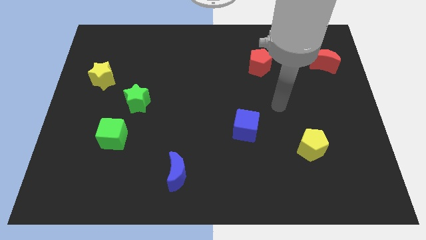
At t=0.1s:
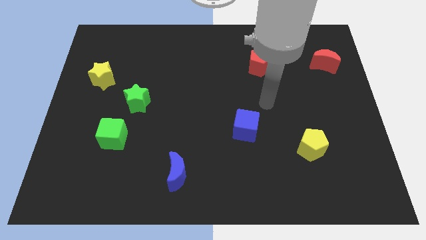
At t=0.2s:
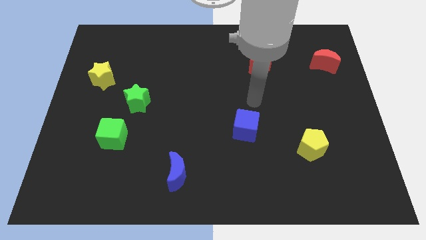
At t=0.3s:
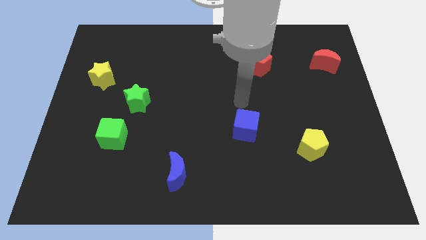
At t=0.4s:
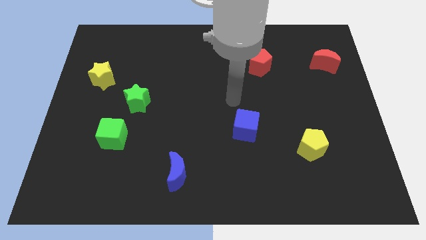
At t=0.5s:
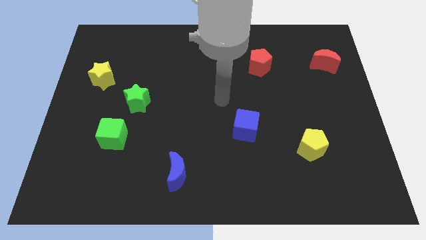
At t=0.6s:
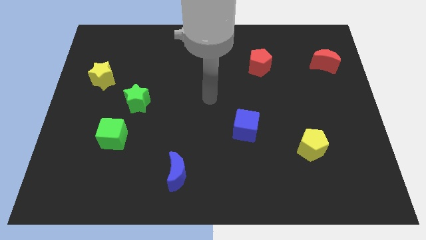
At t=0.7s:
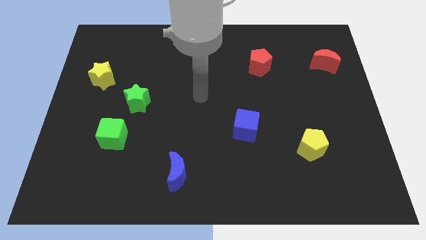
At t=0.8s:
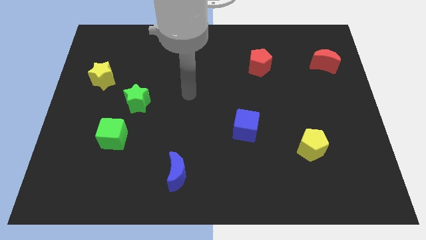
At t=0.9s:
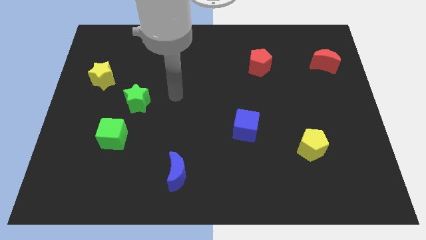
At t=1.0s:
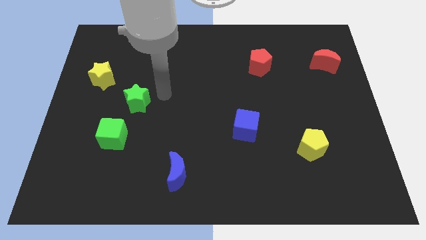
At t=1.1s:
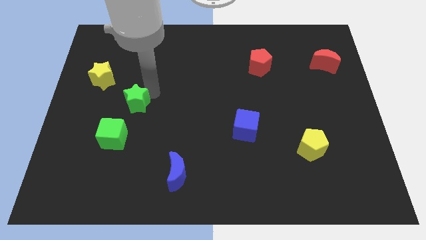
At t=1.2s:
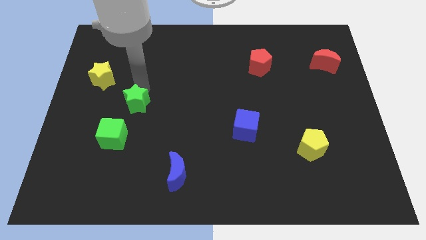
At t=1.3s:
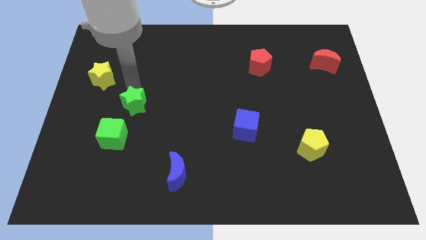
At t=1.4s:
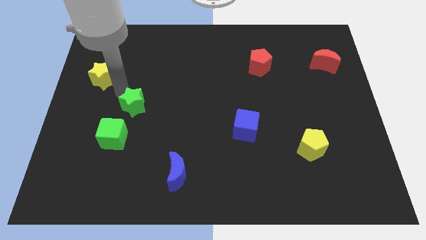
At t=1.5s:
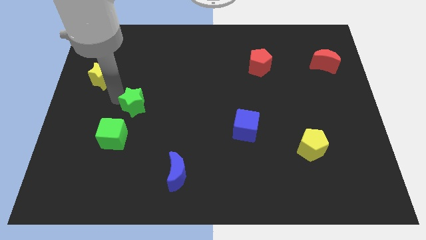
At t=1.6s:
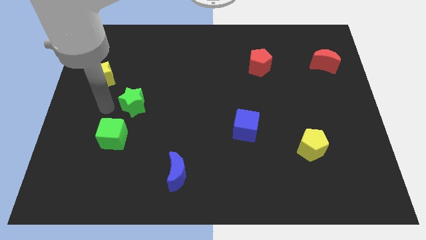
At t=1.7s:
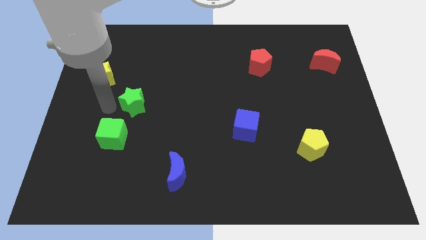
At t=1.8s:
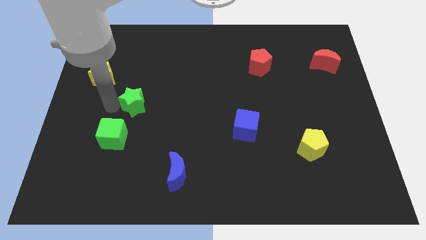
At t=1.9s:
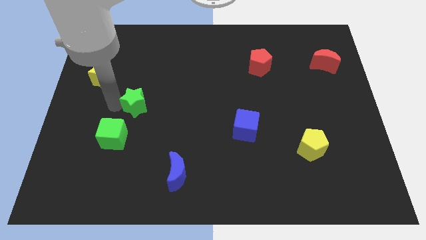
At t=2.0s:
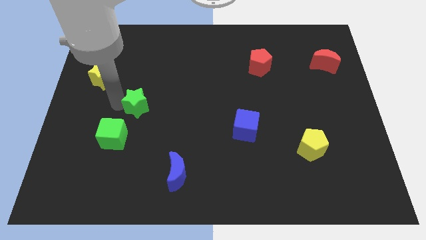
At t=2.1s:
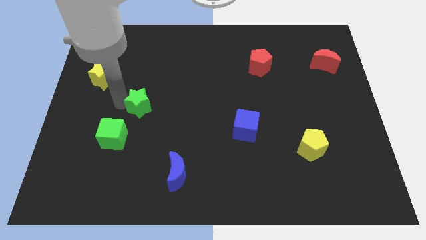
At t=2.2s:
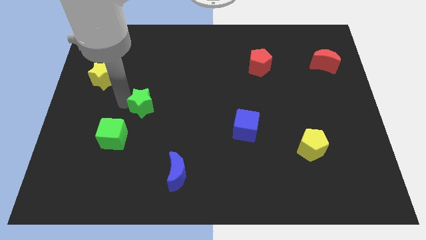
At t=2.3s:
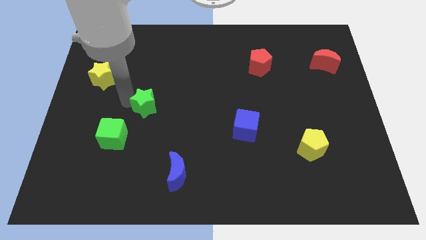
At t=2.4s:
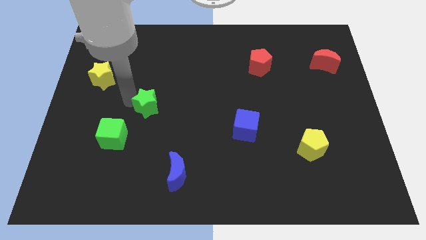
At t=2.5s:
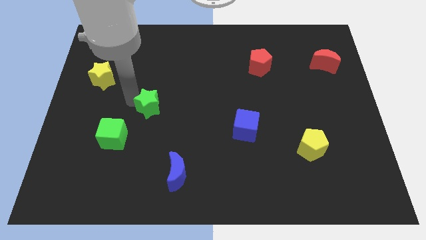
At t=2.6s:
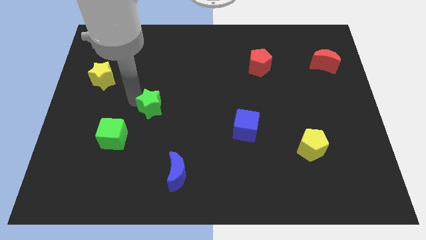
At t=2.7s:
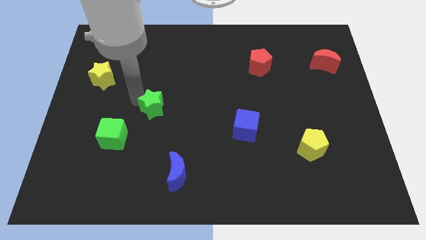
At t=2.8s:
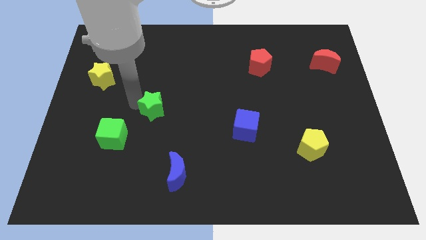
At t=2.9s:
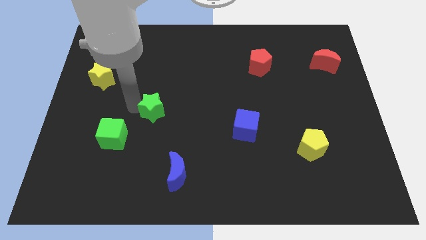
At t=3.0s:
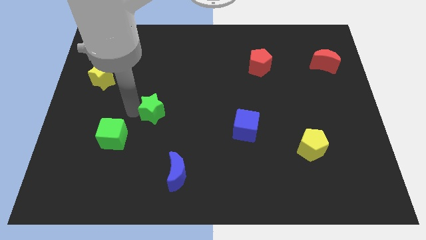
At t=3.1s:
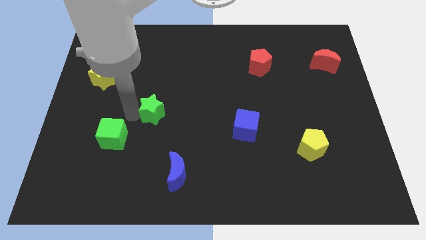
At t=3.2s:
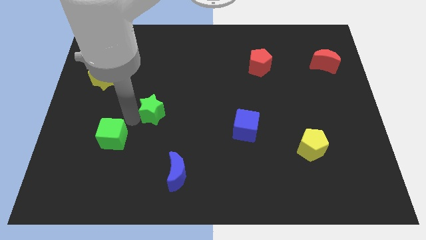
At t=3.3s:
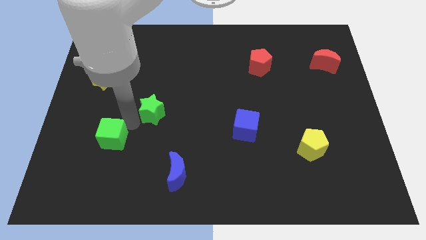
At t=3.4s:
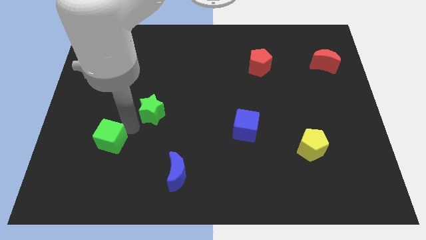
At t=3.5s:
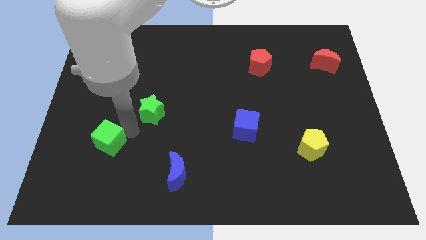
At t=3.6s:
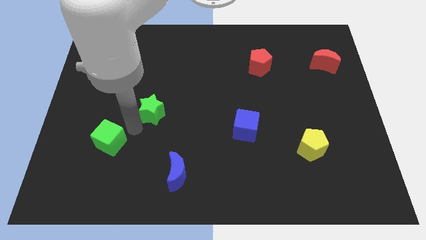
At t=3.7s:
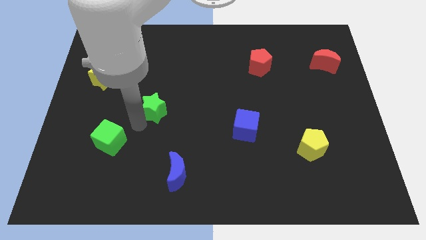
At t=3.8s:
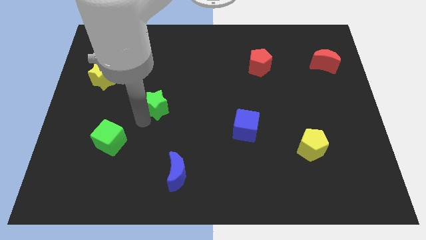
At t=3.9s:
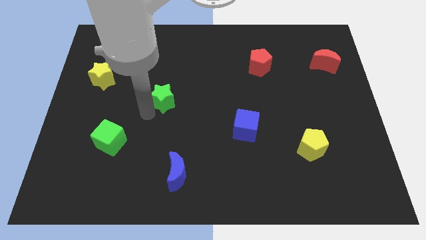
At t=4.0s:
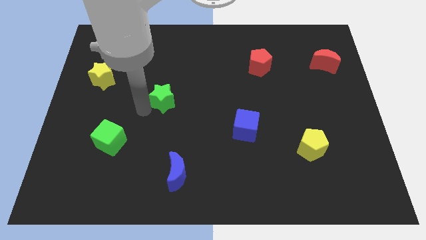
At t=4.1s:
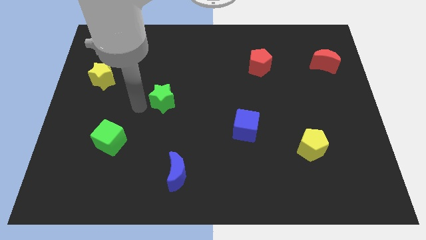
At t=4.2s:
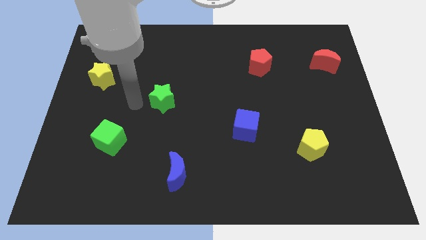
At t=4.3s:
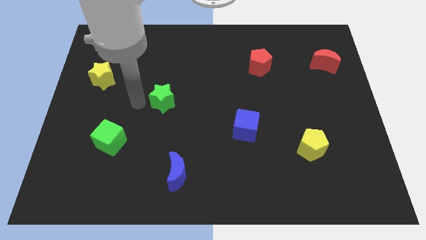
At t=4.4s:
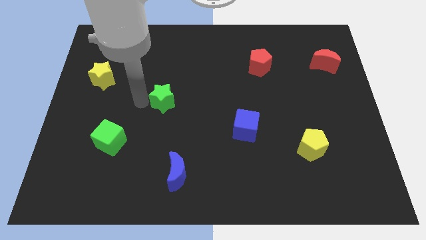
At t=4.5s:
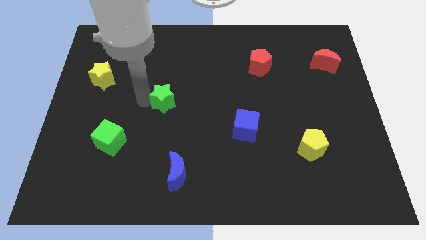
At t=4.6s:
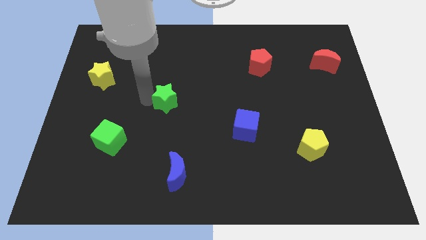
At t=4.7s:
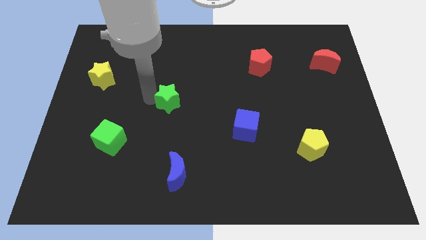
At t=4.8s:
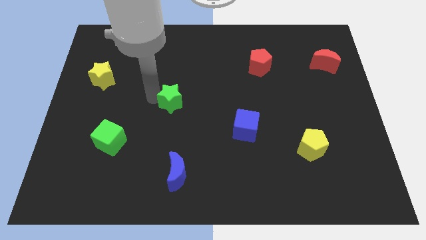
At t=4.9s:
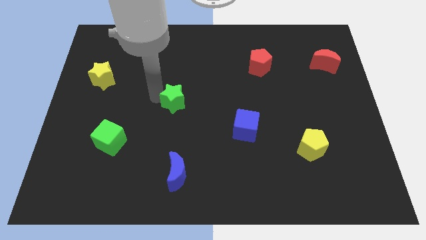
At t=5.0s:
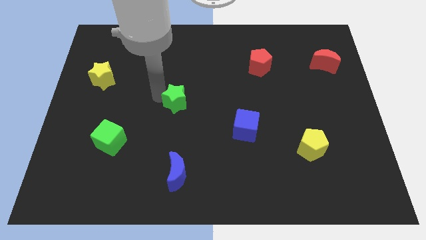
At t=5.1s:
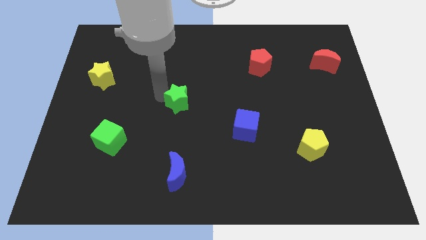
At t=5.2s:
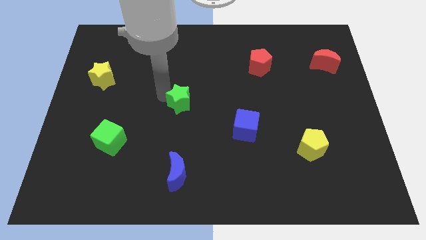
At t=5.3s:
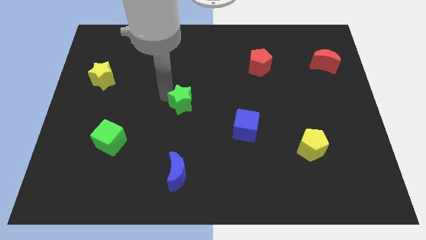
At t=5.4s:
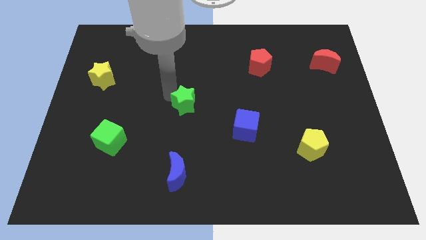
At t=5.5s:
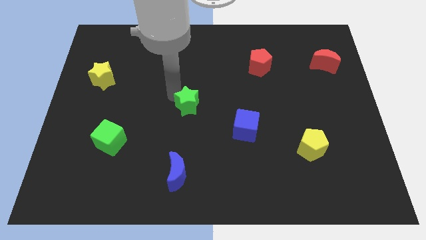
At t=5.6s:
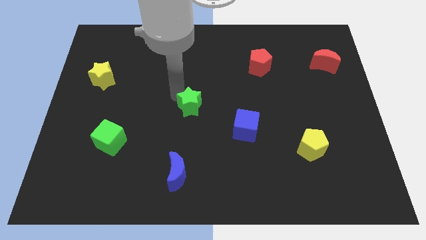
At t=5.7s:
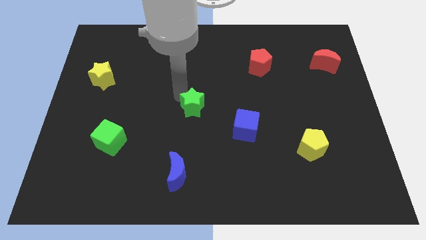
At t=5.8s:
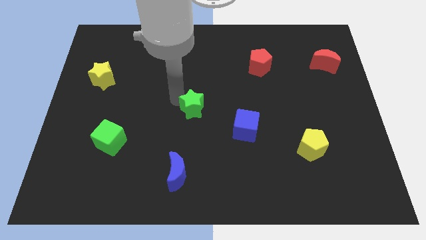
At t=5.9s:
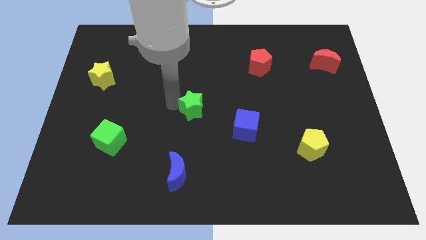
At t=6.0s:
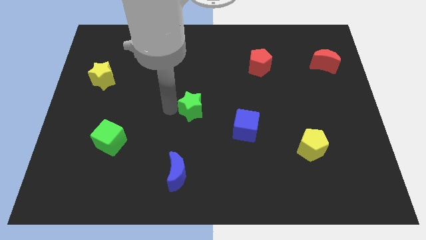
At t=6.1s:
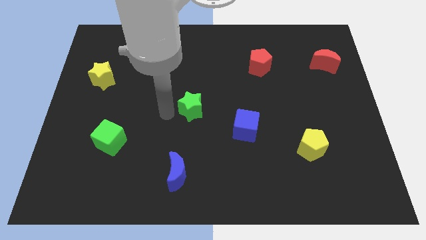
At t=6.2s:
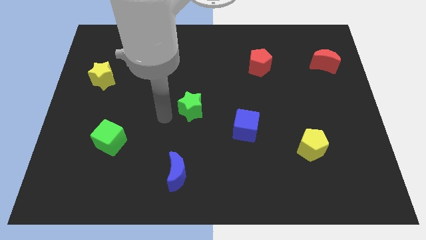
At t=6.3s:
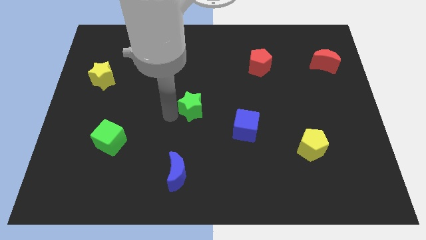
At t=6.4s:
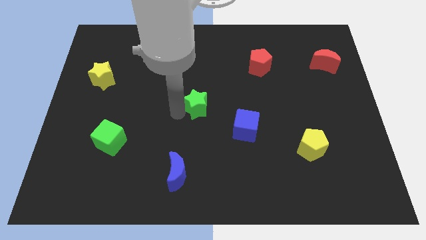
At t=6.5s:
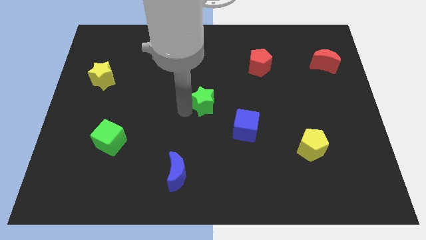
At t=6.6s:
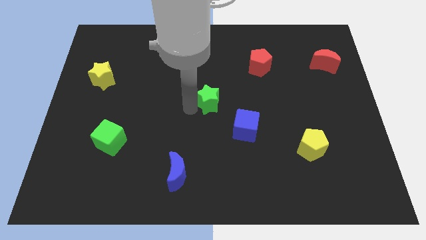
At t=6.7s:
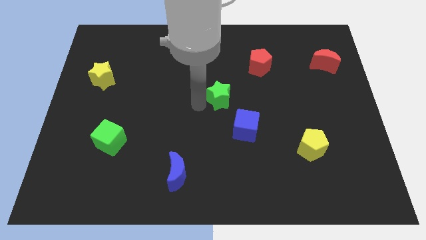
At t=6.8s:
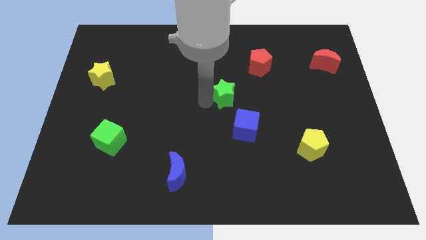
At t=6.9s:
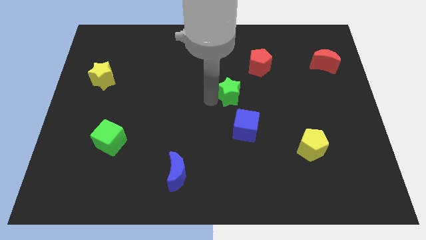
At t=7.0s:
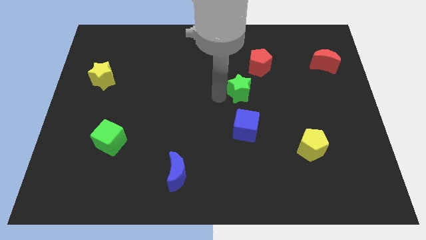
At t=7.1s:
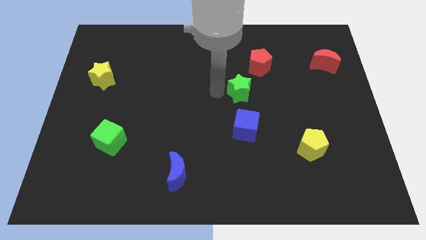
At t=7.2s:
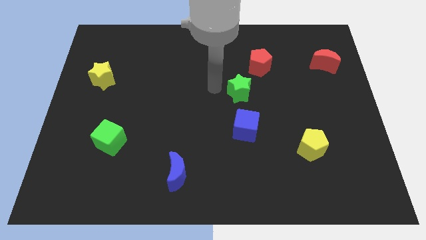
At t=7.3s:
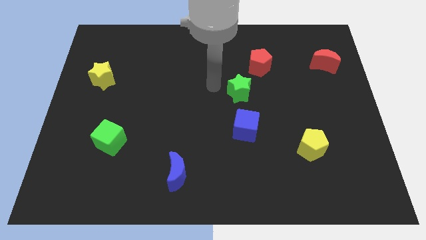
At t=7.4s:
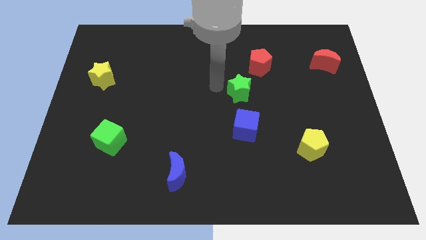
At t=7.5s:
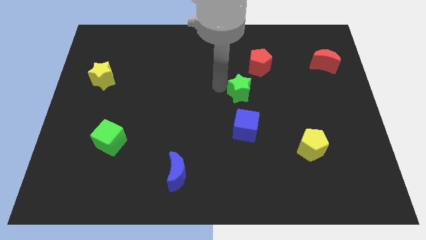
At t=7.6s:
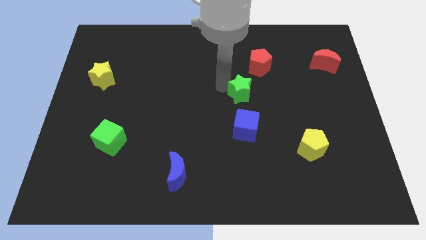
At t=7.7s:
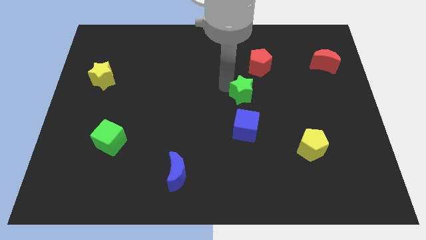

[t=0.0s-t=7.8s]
push the green star to the bottom of the red pentagon
